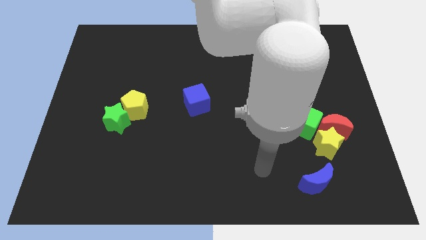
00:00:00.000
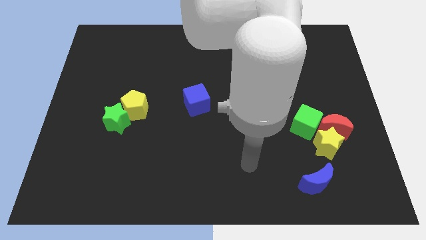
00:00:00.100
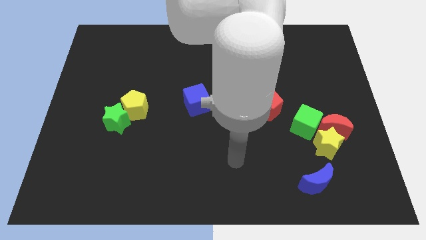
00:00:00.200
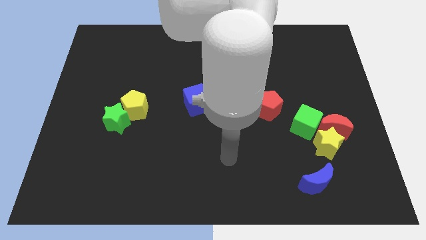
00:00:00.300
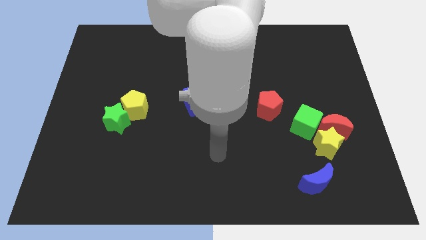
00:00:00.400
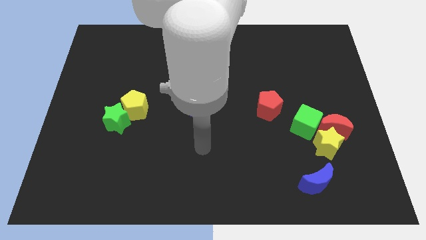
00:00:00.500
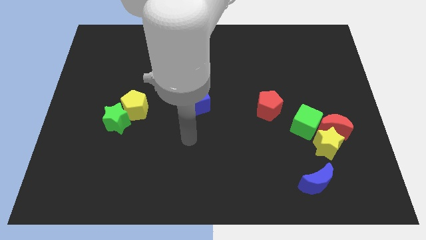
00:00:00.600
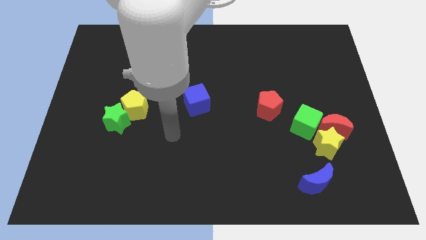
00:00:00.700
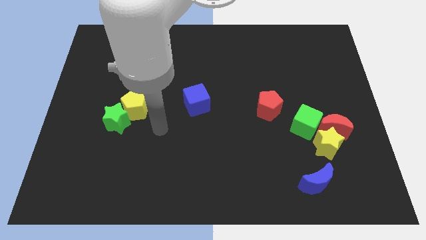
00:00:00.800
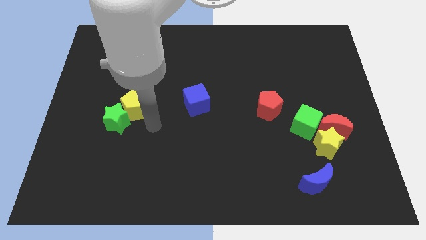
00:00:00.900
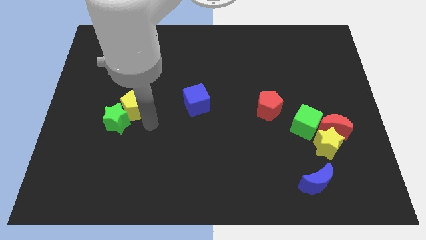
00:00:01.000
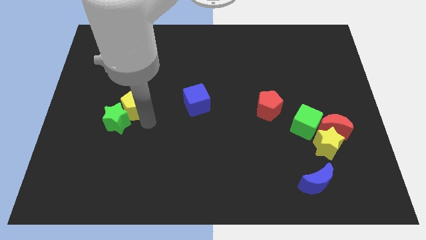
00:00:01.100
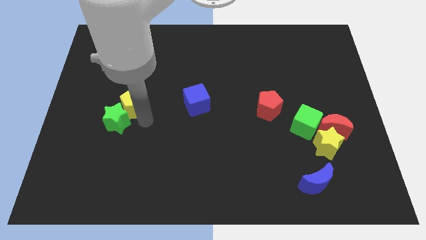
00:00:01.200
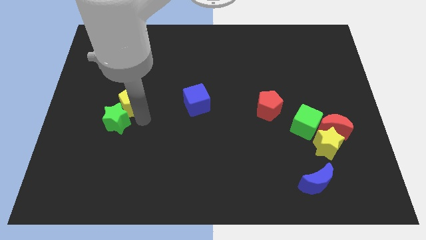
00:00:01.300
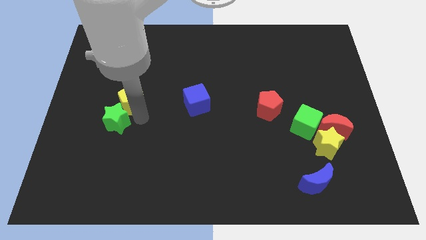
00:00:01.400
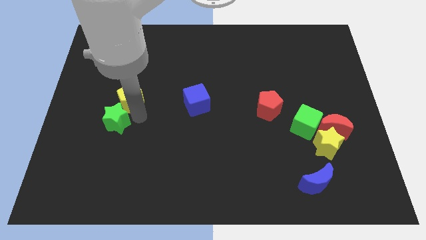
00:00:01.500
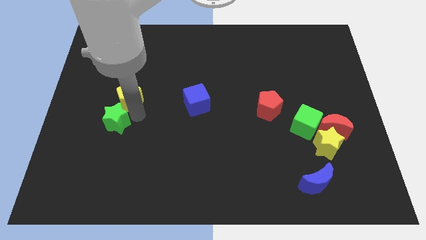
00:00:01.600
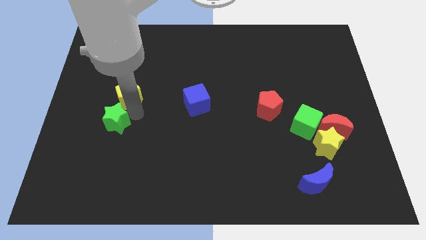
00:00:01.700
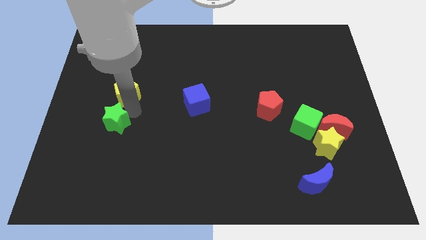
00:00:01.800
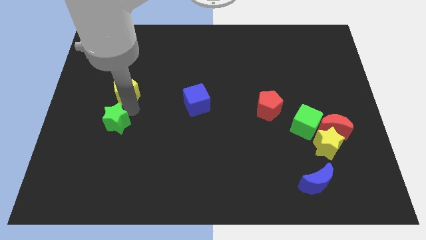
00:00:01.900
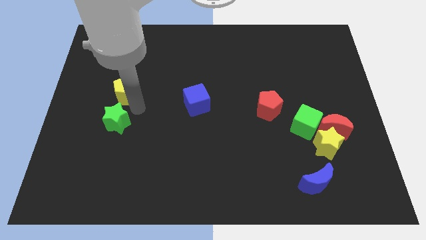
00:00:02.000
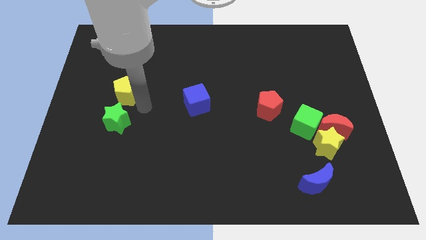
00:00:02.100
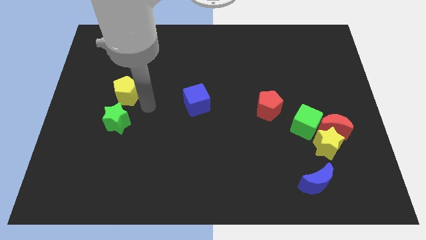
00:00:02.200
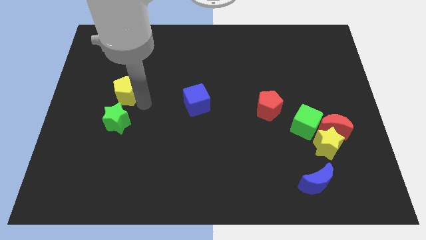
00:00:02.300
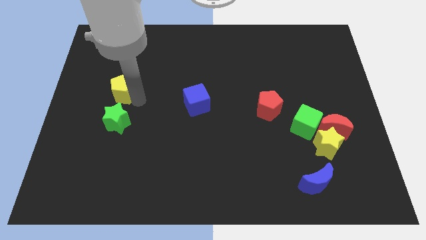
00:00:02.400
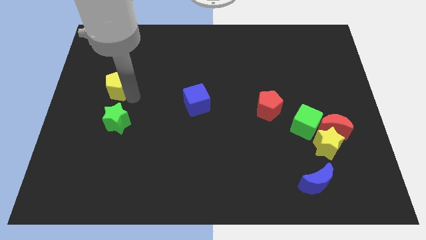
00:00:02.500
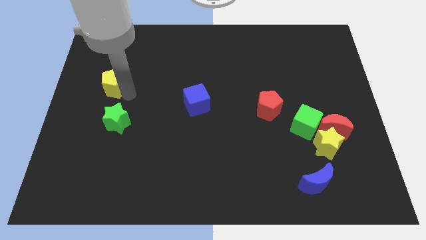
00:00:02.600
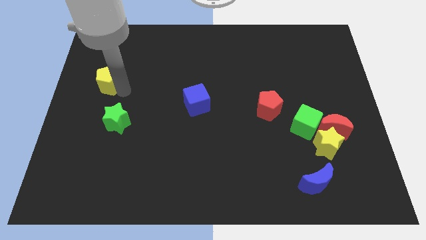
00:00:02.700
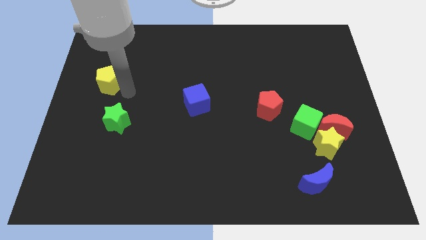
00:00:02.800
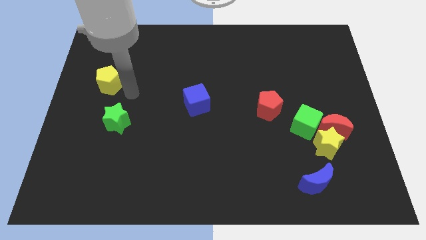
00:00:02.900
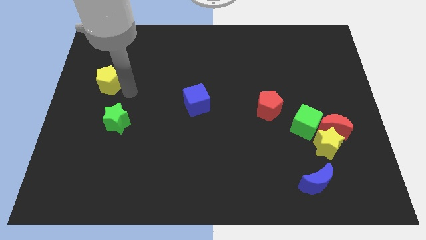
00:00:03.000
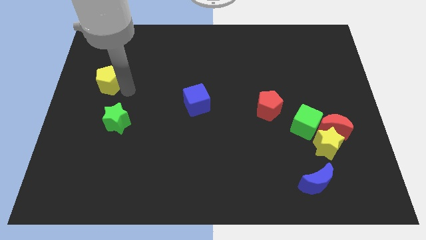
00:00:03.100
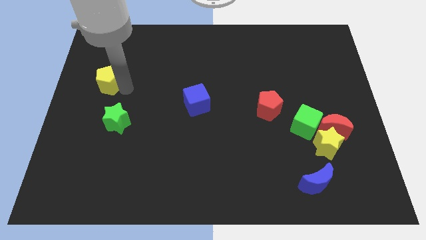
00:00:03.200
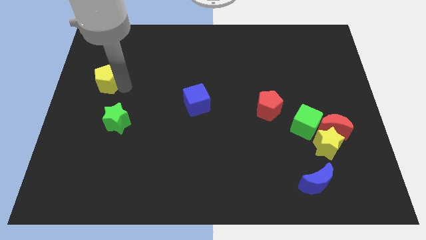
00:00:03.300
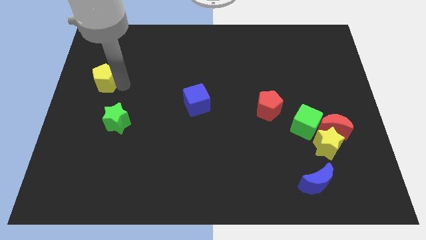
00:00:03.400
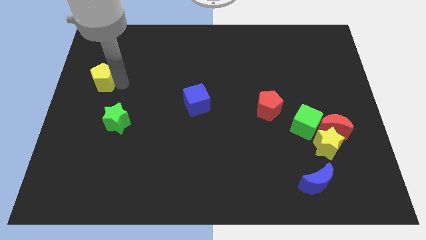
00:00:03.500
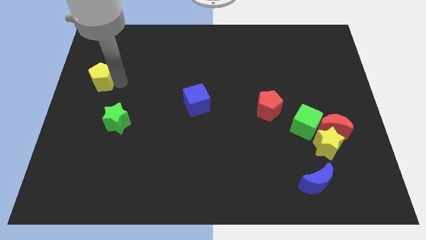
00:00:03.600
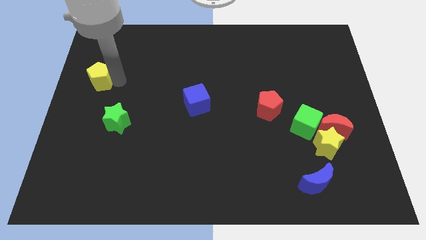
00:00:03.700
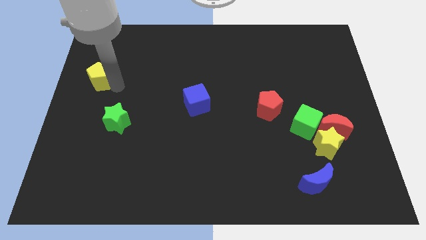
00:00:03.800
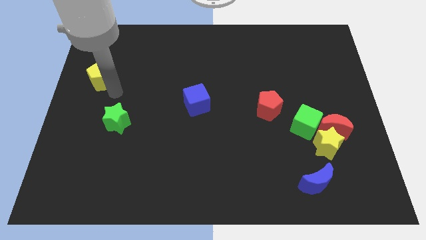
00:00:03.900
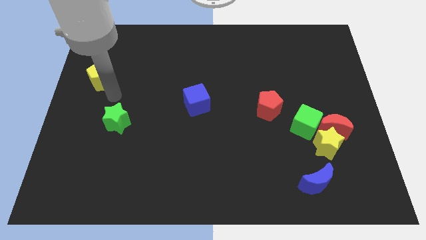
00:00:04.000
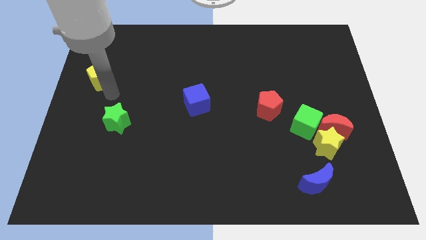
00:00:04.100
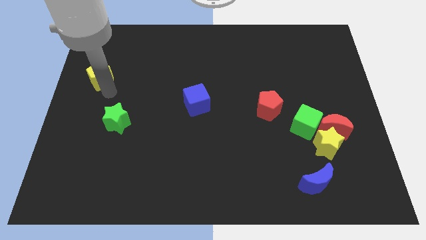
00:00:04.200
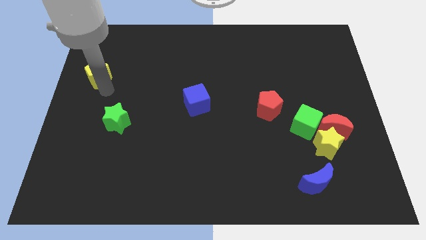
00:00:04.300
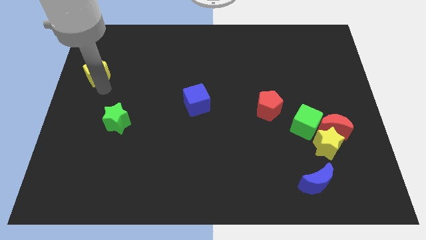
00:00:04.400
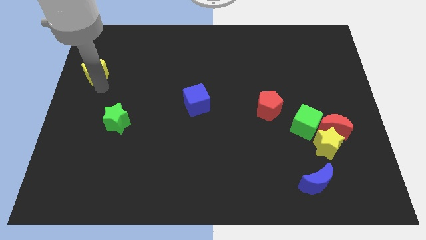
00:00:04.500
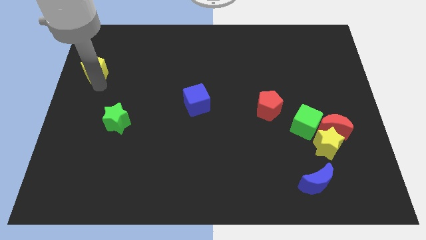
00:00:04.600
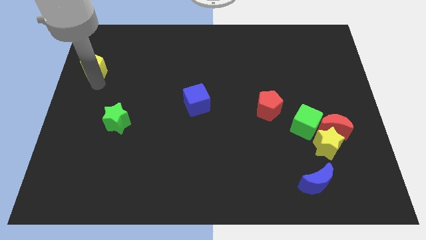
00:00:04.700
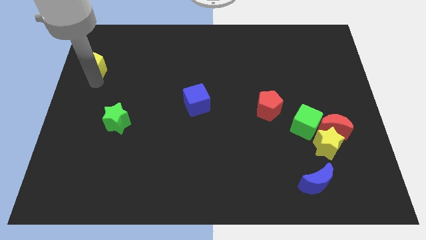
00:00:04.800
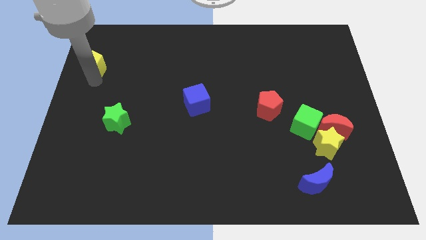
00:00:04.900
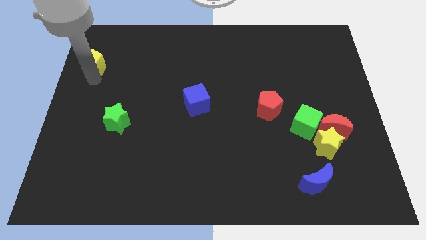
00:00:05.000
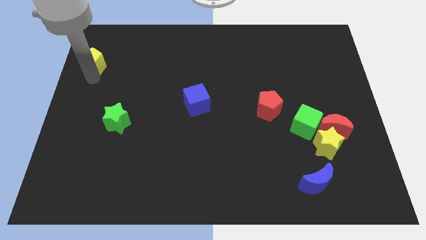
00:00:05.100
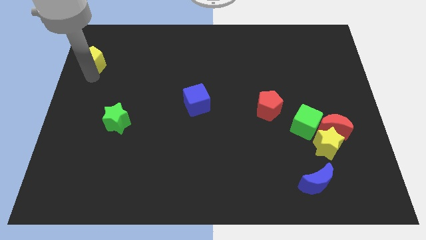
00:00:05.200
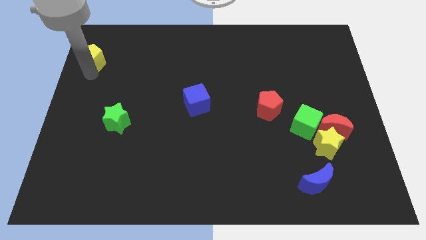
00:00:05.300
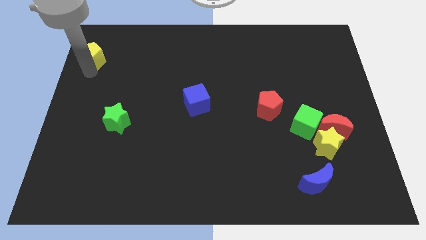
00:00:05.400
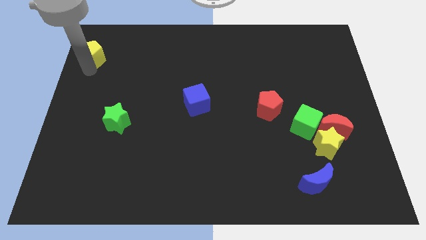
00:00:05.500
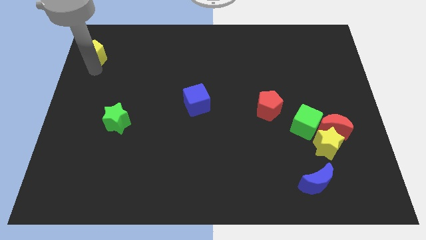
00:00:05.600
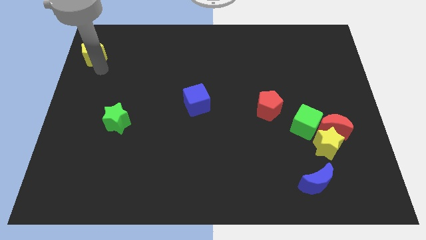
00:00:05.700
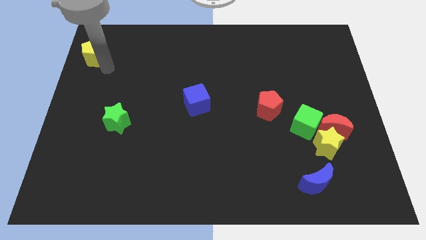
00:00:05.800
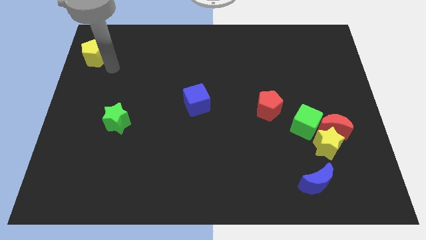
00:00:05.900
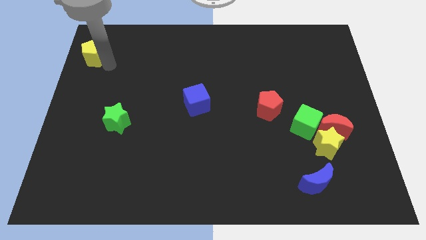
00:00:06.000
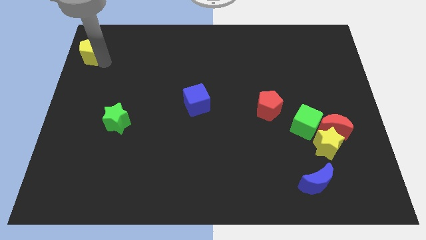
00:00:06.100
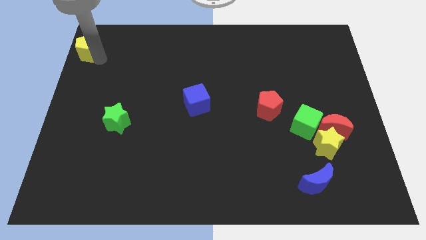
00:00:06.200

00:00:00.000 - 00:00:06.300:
push the yellow pentagon to the top left of the board

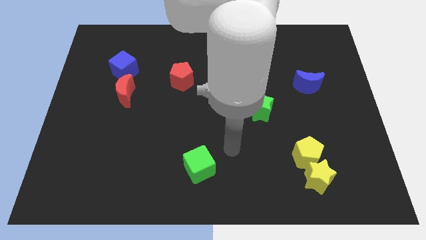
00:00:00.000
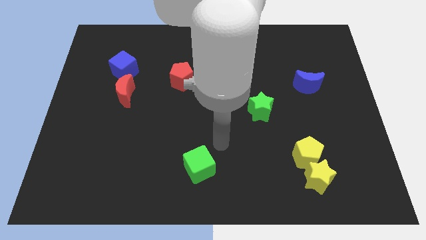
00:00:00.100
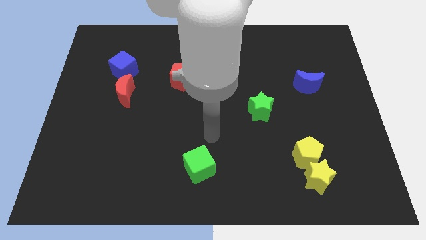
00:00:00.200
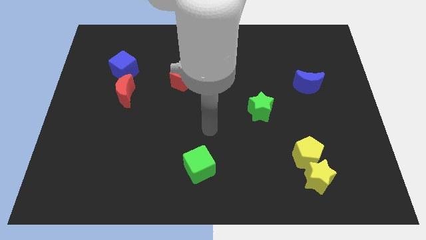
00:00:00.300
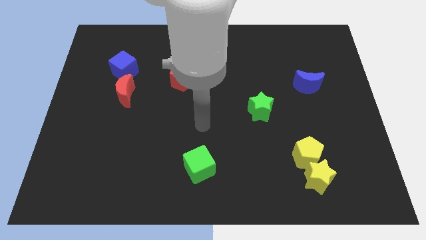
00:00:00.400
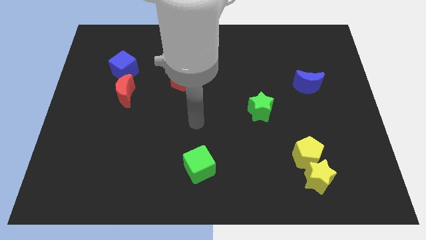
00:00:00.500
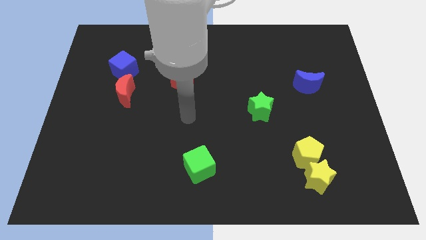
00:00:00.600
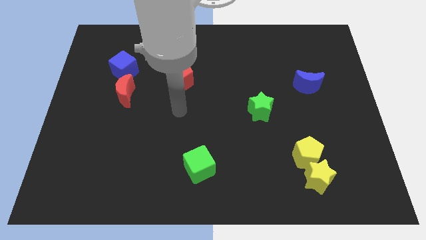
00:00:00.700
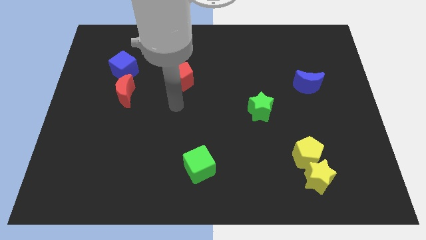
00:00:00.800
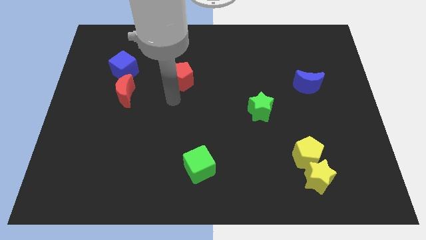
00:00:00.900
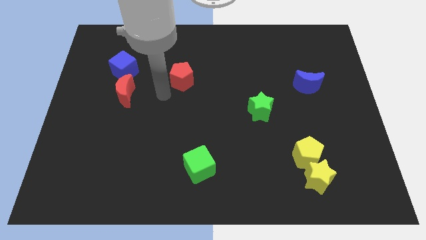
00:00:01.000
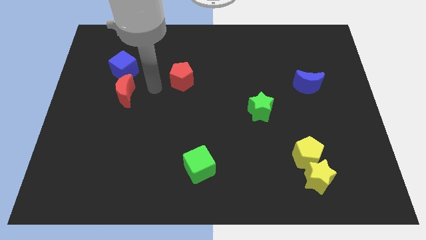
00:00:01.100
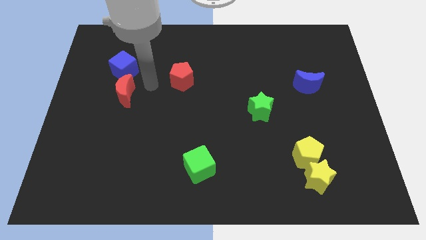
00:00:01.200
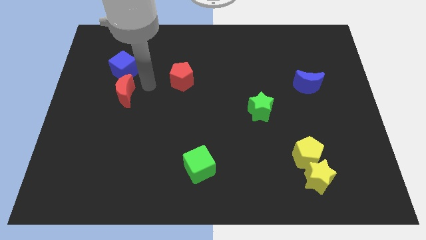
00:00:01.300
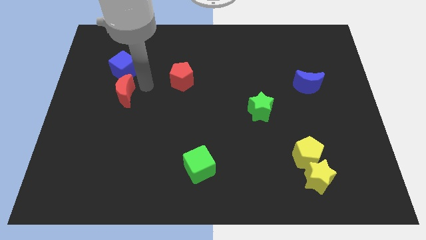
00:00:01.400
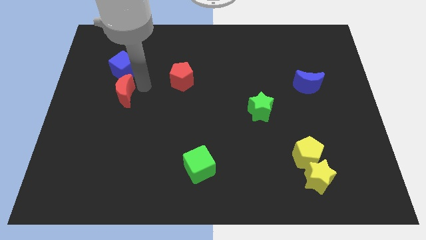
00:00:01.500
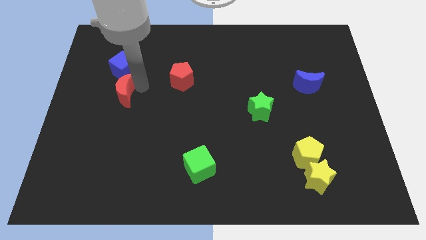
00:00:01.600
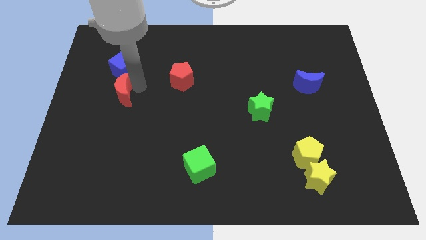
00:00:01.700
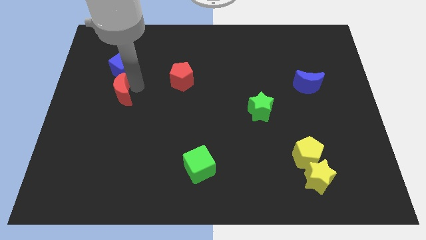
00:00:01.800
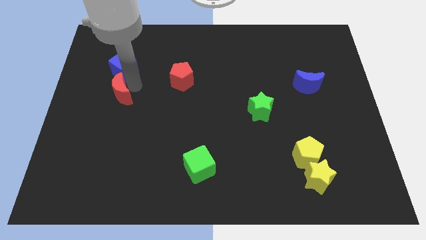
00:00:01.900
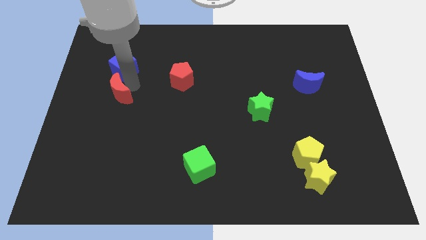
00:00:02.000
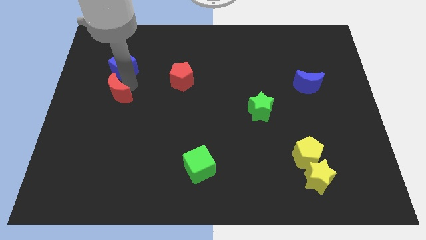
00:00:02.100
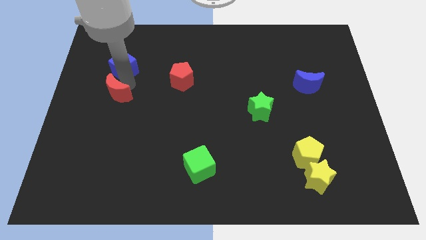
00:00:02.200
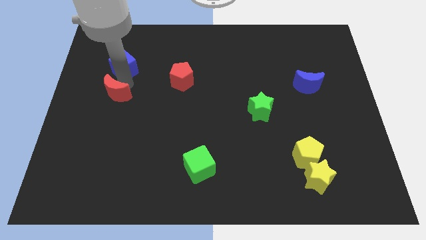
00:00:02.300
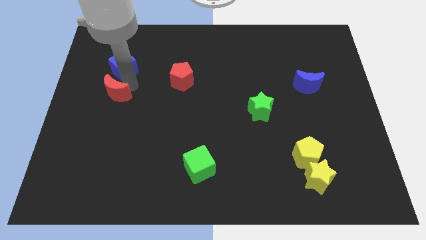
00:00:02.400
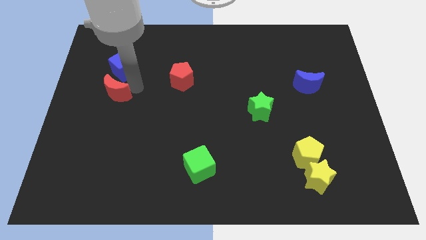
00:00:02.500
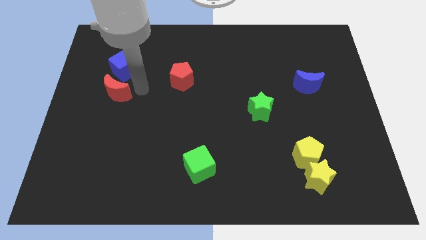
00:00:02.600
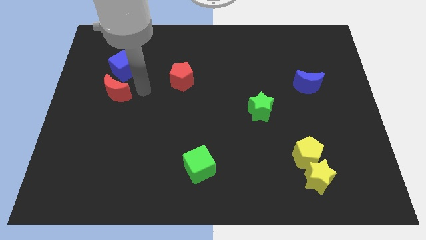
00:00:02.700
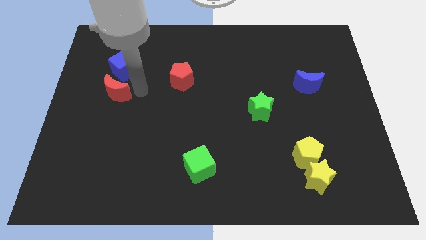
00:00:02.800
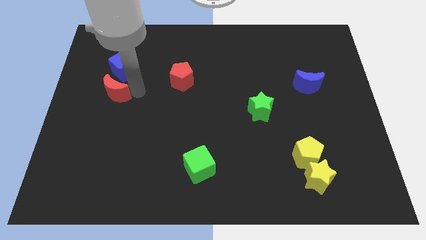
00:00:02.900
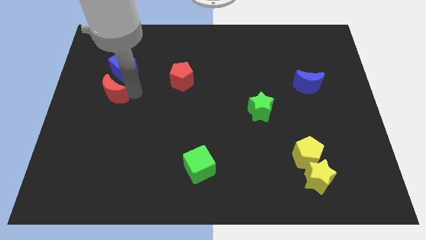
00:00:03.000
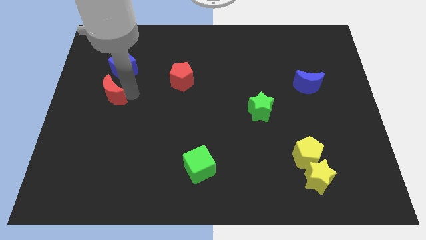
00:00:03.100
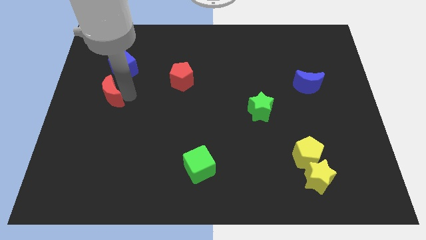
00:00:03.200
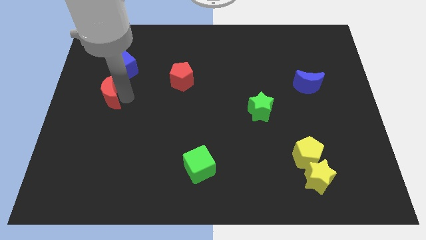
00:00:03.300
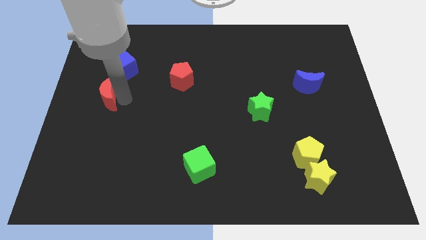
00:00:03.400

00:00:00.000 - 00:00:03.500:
put the red moon to the center left
